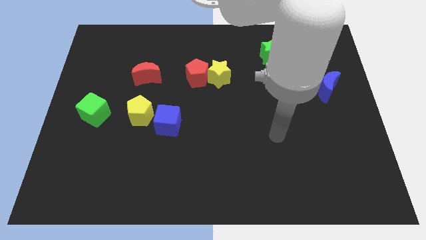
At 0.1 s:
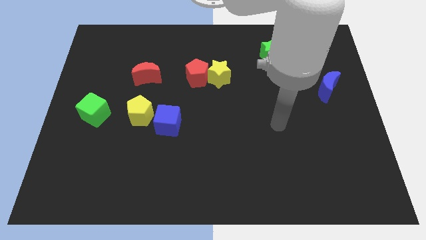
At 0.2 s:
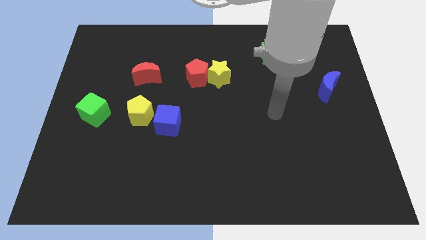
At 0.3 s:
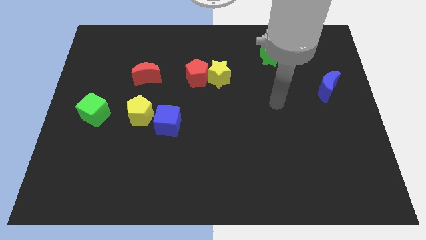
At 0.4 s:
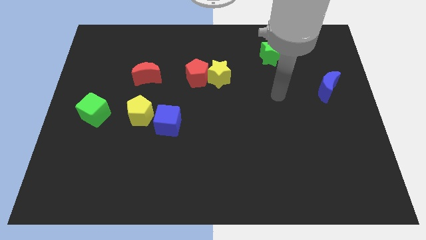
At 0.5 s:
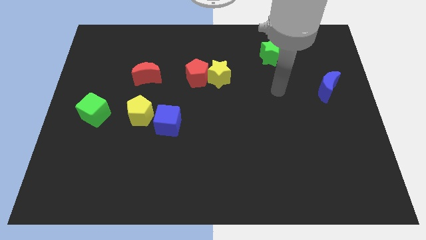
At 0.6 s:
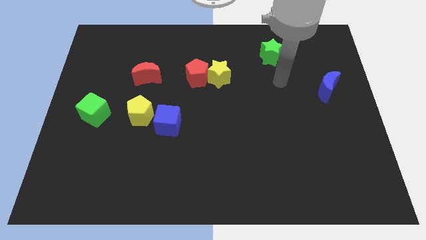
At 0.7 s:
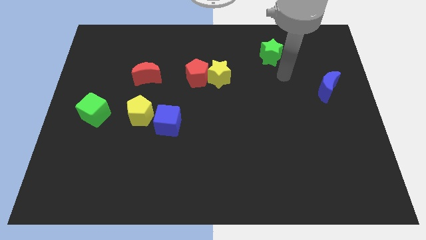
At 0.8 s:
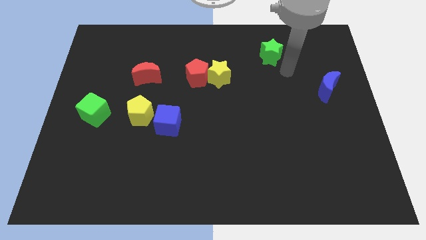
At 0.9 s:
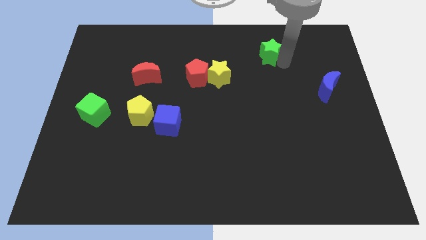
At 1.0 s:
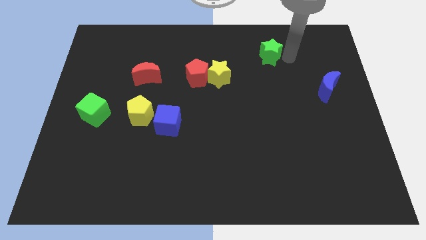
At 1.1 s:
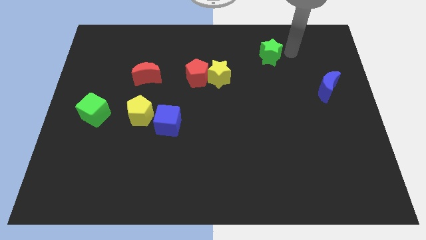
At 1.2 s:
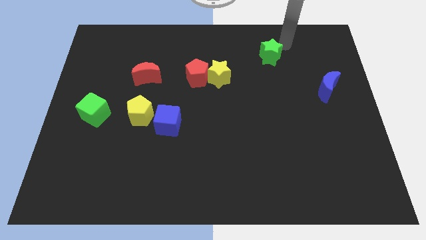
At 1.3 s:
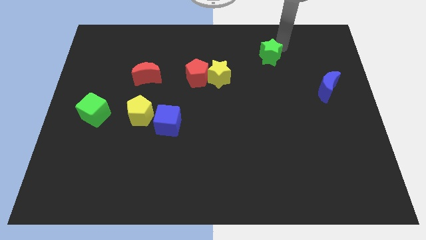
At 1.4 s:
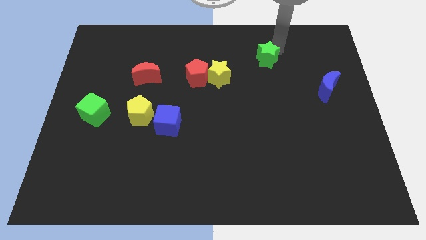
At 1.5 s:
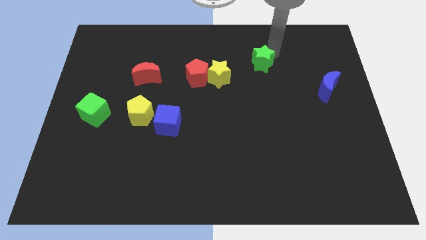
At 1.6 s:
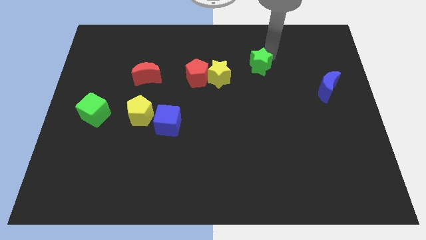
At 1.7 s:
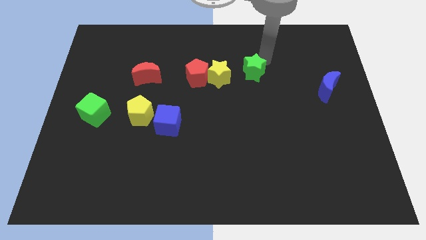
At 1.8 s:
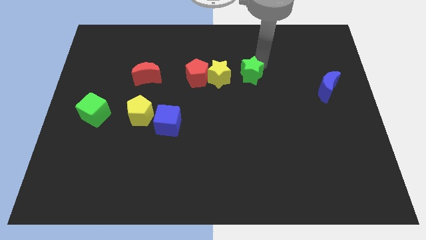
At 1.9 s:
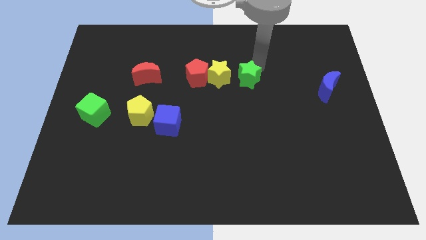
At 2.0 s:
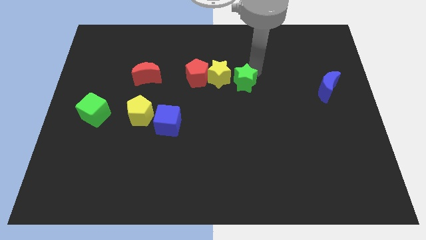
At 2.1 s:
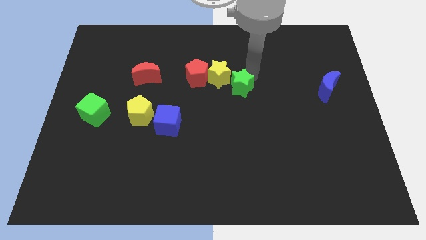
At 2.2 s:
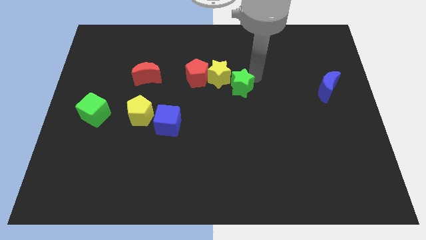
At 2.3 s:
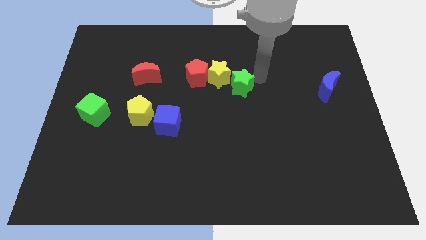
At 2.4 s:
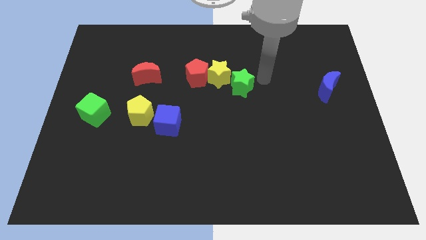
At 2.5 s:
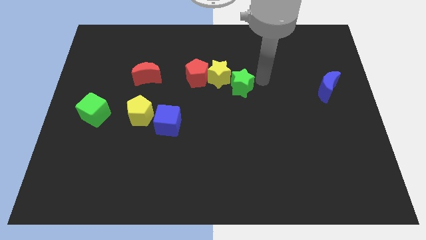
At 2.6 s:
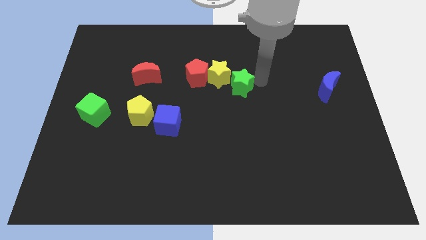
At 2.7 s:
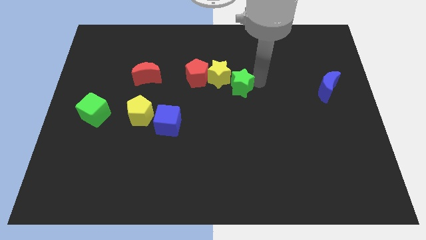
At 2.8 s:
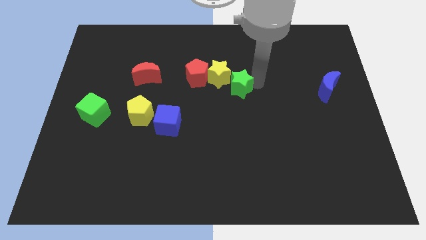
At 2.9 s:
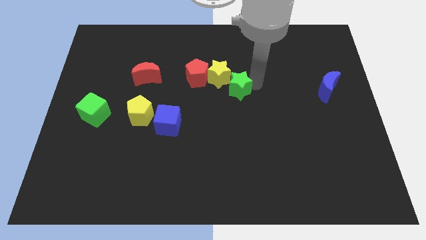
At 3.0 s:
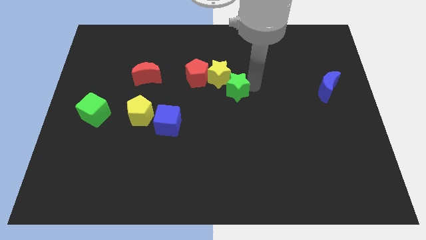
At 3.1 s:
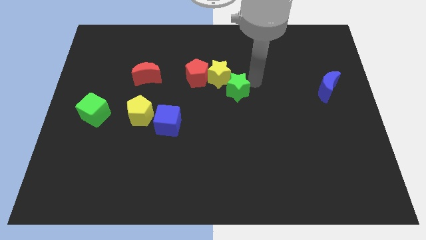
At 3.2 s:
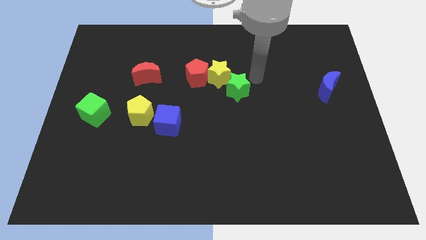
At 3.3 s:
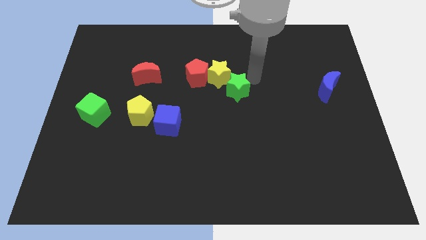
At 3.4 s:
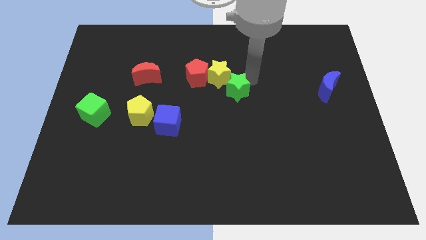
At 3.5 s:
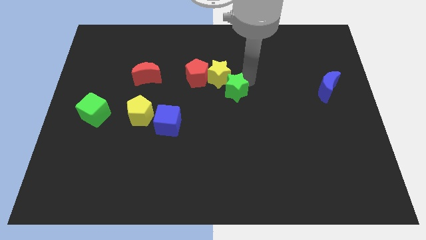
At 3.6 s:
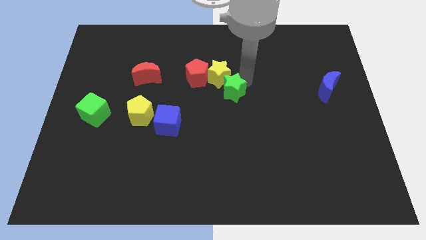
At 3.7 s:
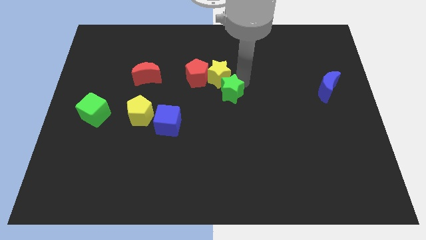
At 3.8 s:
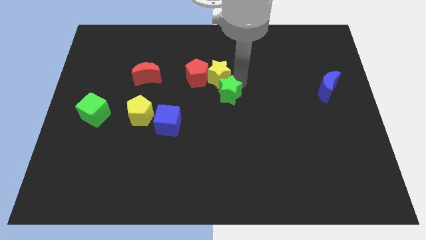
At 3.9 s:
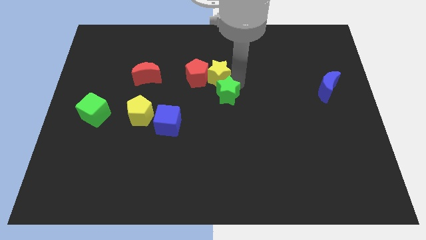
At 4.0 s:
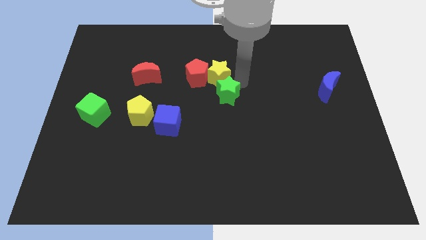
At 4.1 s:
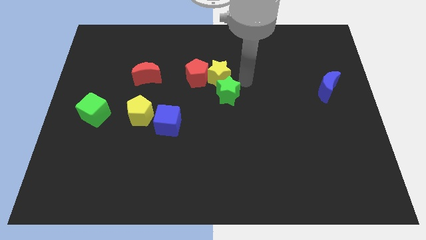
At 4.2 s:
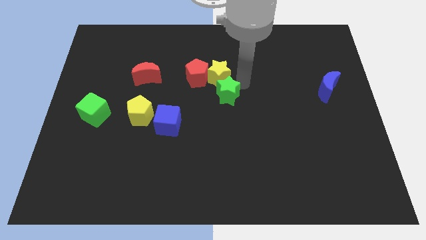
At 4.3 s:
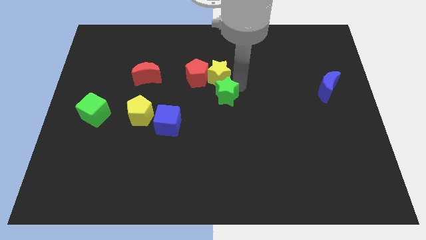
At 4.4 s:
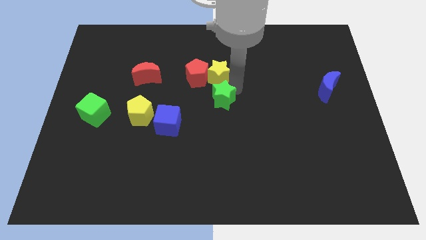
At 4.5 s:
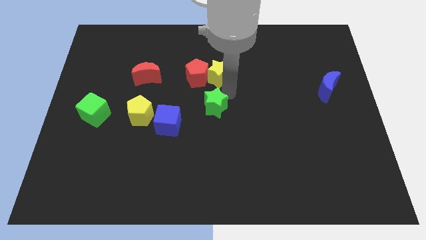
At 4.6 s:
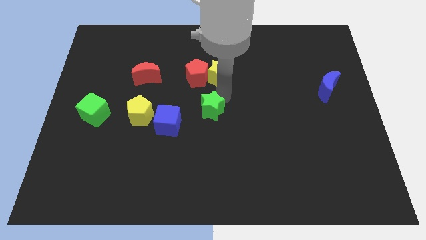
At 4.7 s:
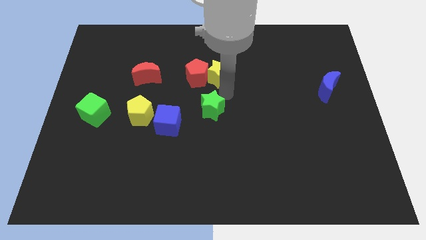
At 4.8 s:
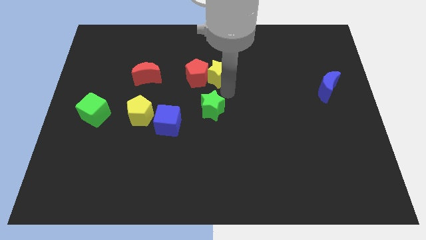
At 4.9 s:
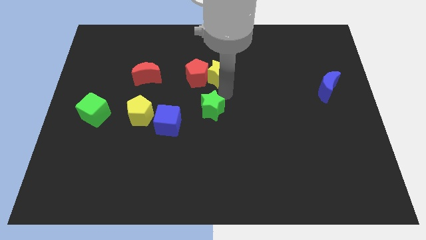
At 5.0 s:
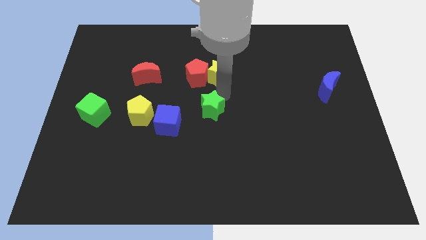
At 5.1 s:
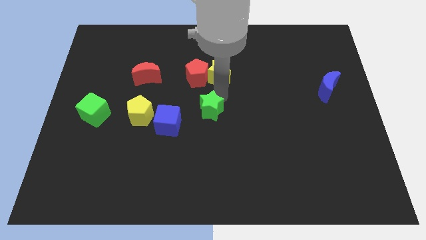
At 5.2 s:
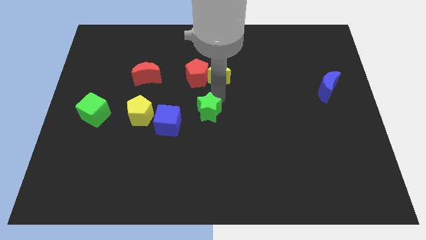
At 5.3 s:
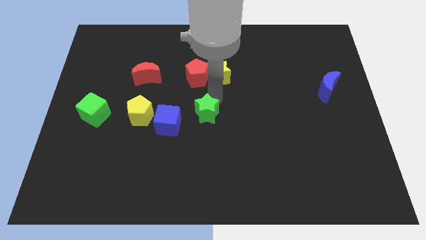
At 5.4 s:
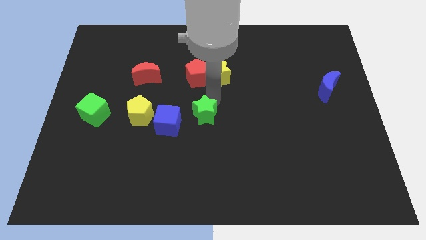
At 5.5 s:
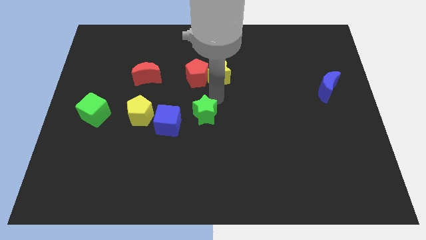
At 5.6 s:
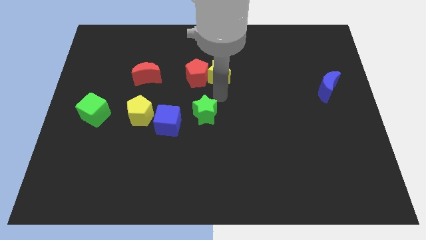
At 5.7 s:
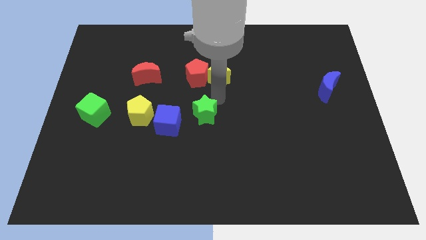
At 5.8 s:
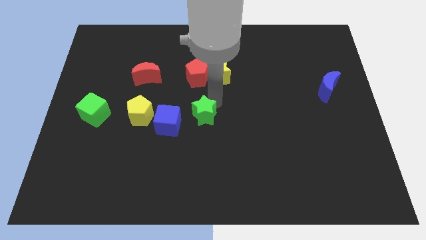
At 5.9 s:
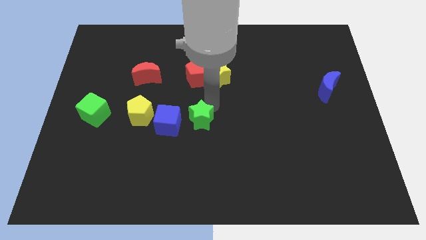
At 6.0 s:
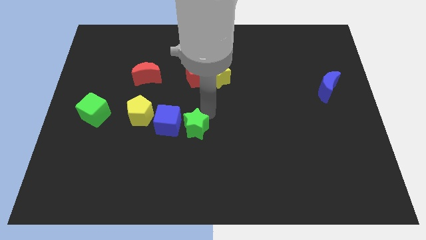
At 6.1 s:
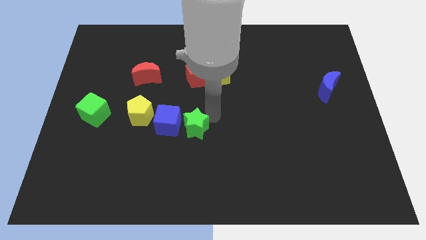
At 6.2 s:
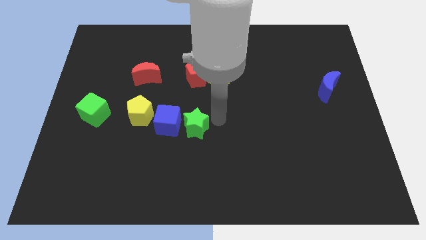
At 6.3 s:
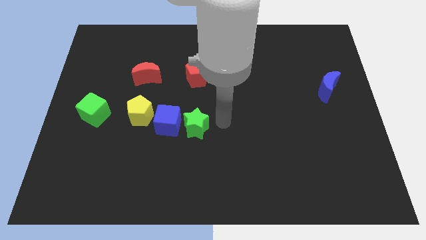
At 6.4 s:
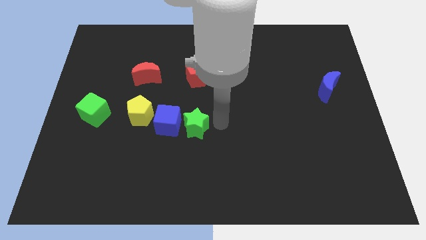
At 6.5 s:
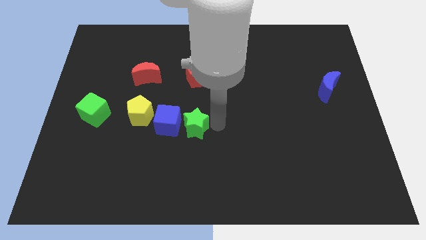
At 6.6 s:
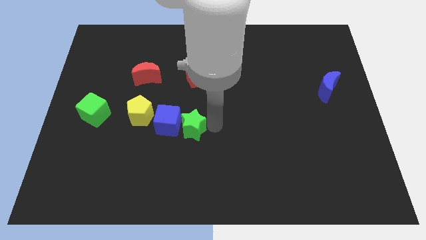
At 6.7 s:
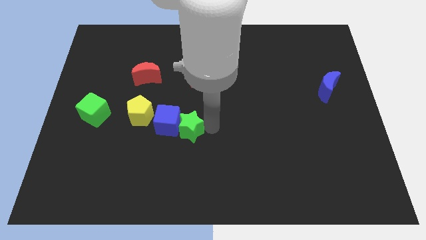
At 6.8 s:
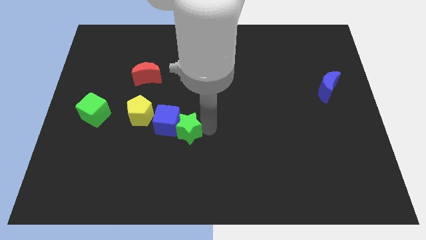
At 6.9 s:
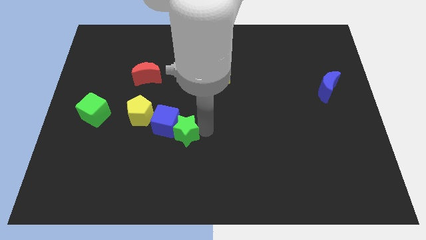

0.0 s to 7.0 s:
put the green star to the bottom right of the yellow pentagon

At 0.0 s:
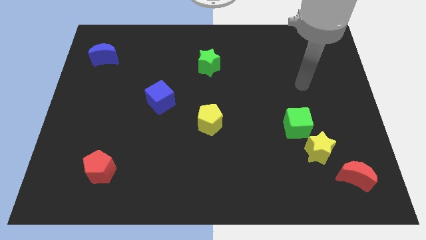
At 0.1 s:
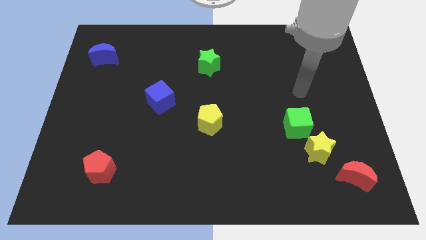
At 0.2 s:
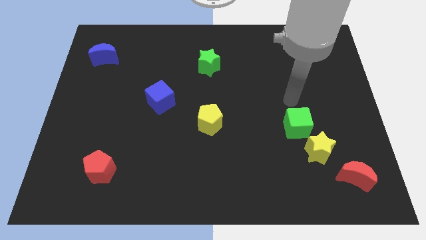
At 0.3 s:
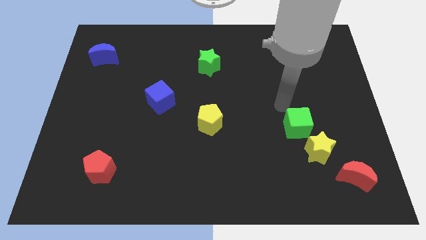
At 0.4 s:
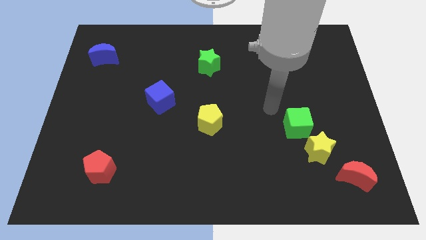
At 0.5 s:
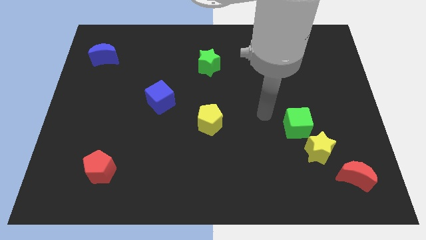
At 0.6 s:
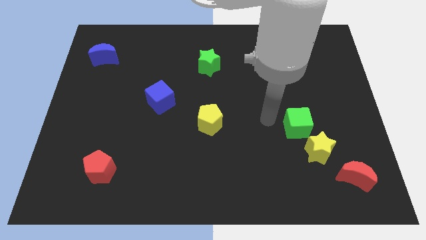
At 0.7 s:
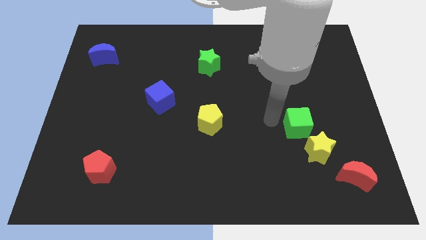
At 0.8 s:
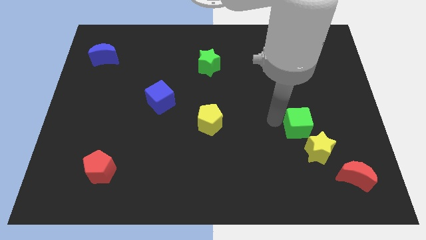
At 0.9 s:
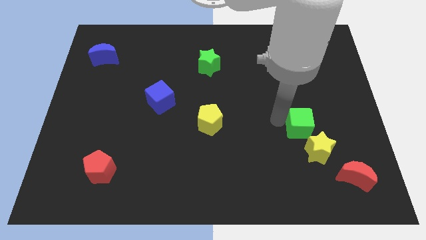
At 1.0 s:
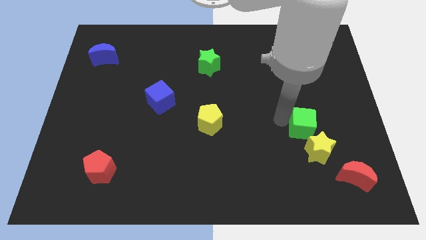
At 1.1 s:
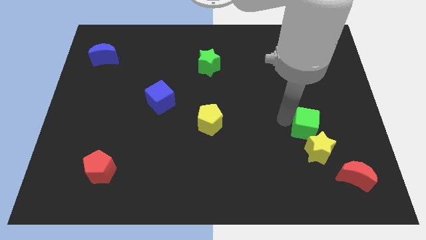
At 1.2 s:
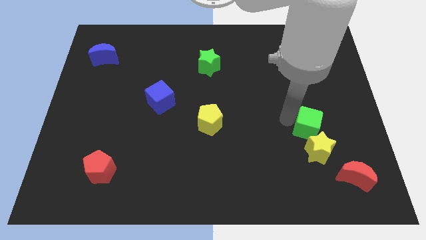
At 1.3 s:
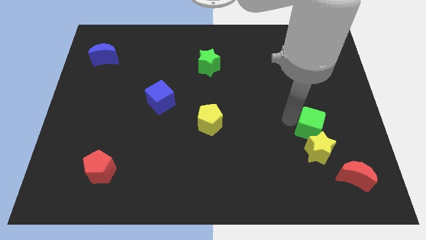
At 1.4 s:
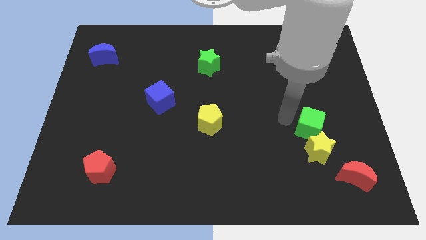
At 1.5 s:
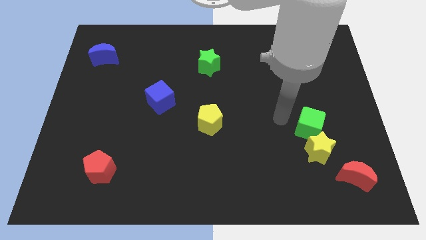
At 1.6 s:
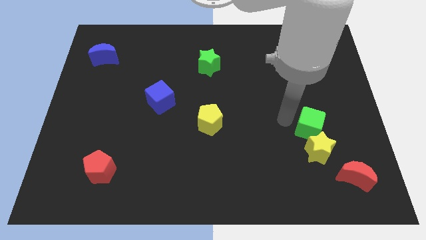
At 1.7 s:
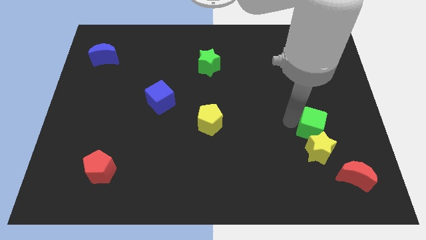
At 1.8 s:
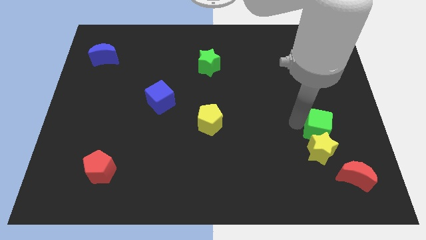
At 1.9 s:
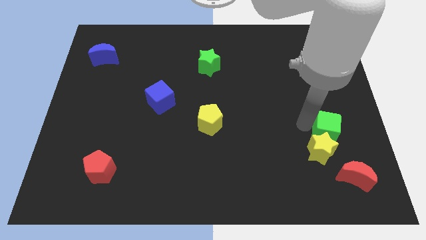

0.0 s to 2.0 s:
put the green cube to the top of the red moon
